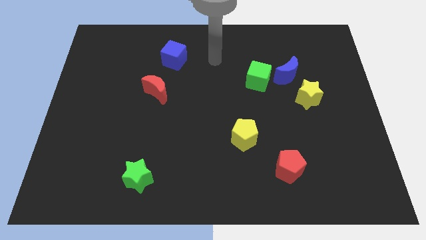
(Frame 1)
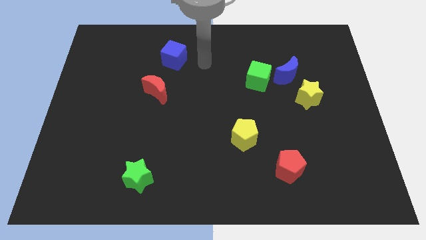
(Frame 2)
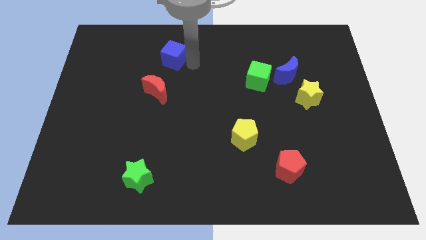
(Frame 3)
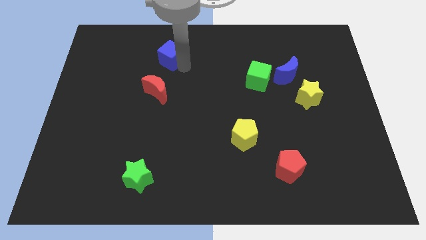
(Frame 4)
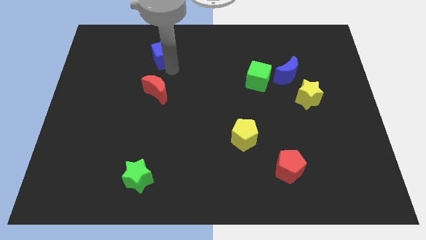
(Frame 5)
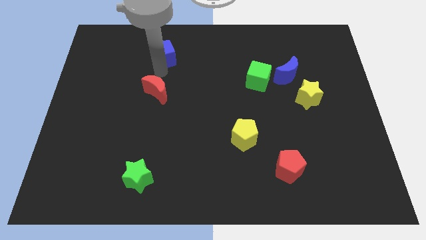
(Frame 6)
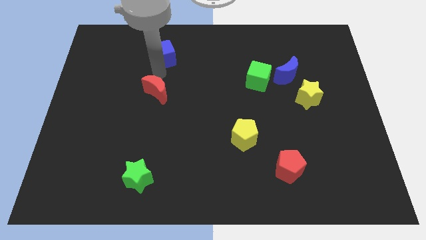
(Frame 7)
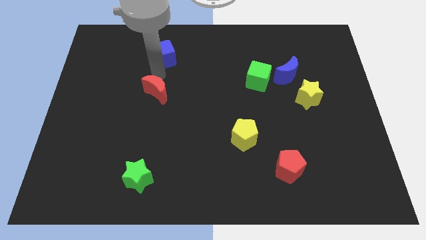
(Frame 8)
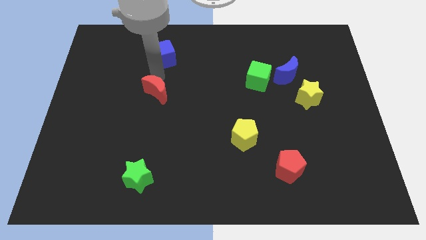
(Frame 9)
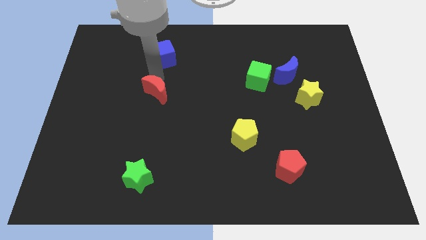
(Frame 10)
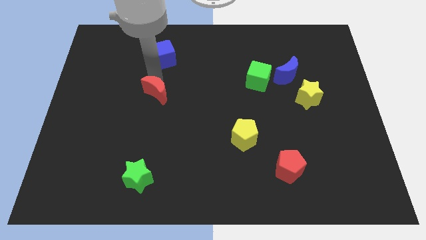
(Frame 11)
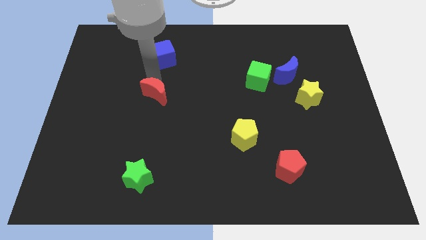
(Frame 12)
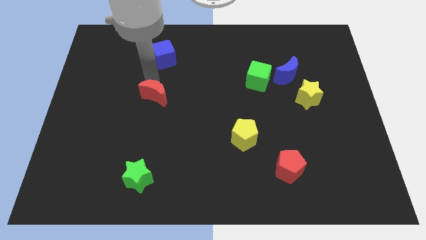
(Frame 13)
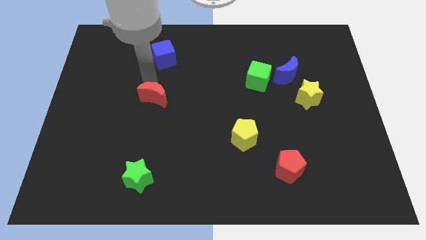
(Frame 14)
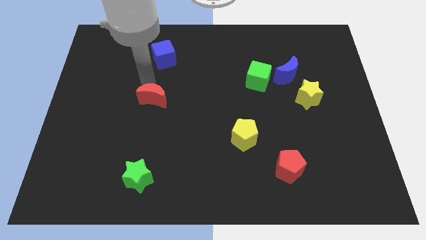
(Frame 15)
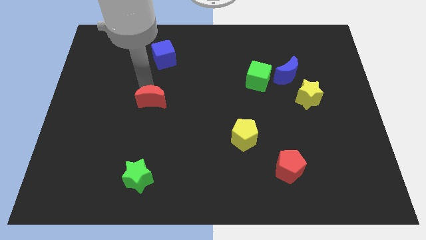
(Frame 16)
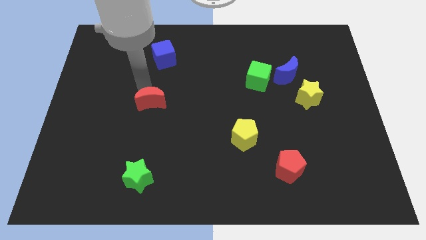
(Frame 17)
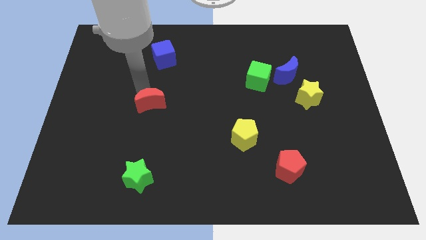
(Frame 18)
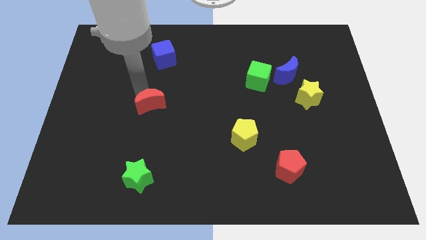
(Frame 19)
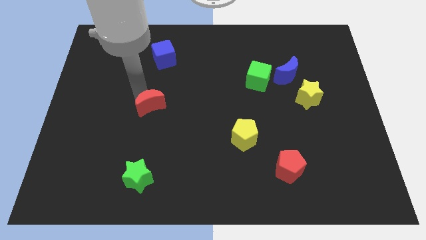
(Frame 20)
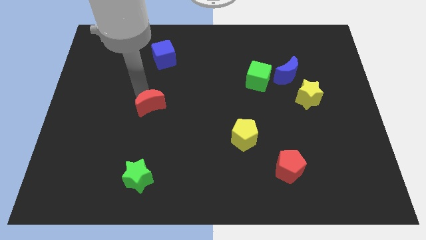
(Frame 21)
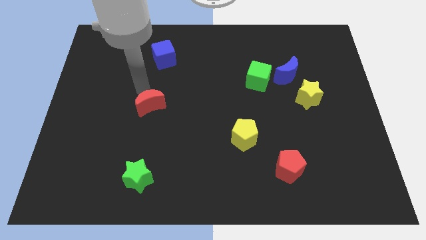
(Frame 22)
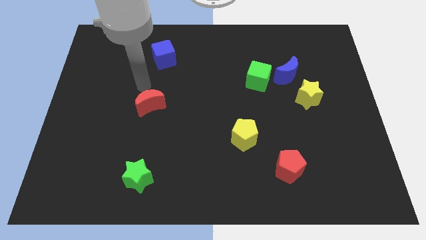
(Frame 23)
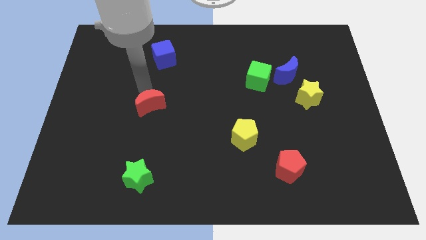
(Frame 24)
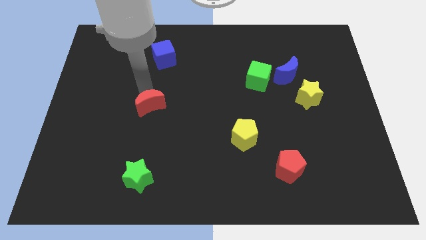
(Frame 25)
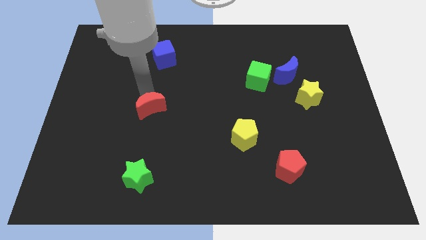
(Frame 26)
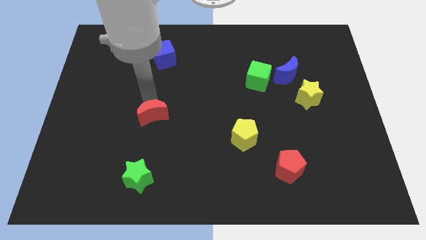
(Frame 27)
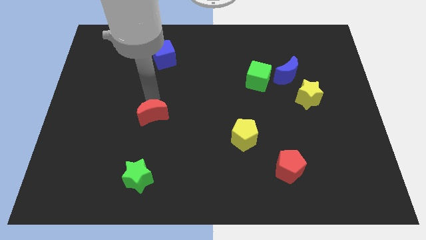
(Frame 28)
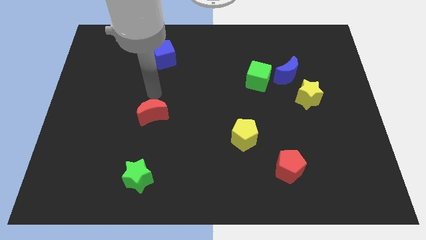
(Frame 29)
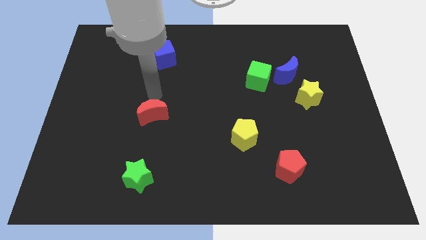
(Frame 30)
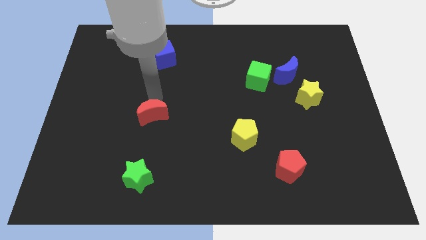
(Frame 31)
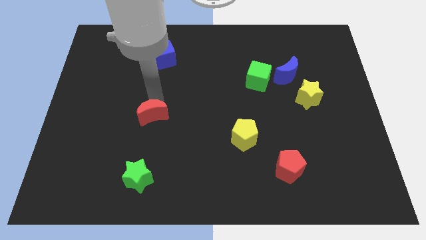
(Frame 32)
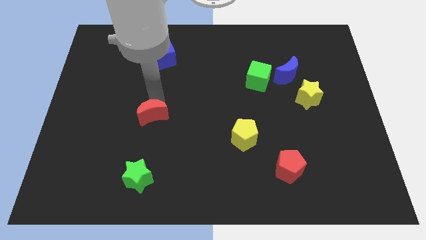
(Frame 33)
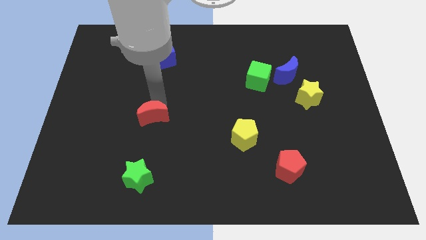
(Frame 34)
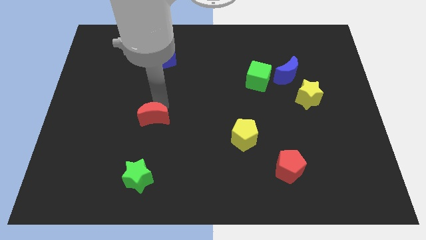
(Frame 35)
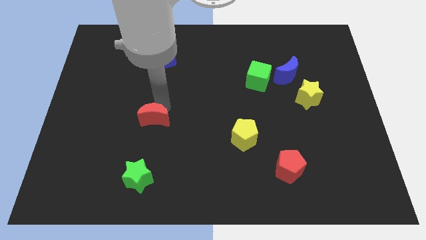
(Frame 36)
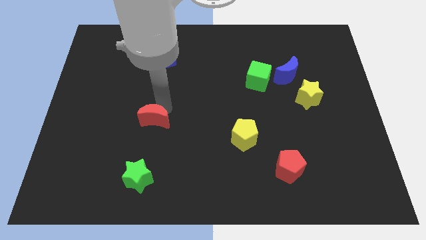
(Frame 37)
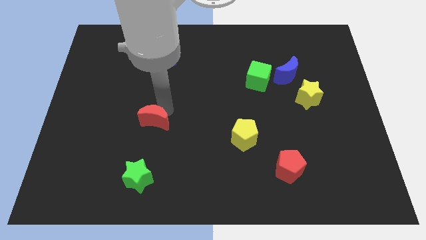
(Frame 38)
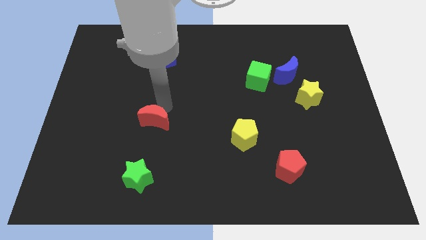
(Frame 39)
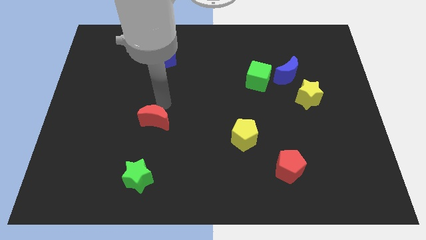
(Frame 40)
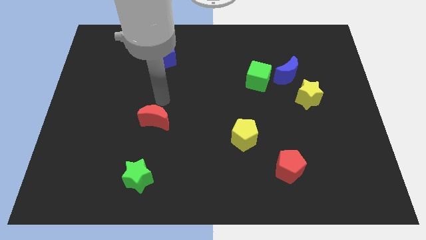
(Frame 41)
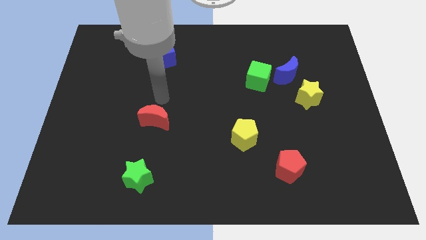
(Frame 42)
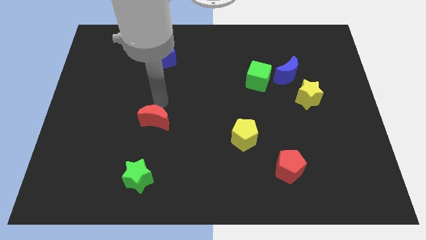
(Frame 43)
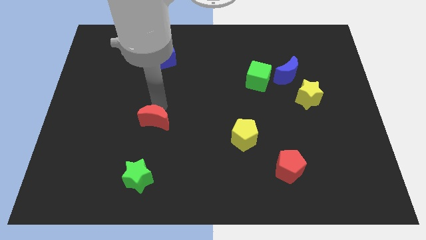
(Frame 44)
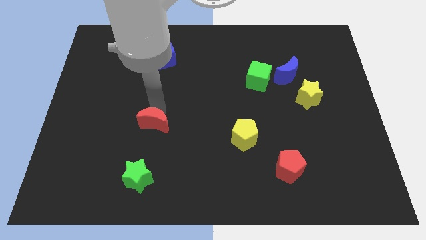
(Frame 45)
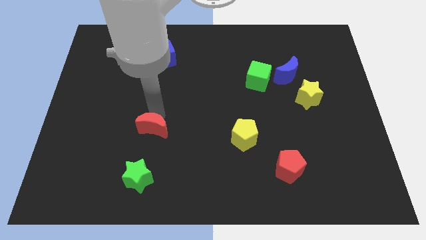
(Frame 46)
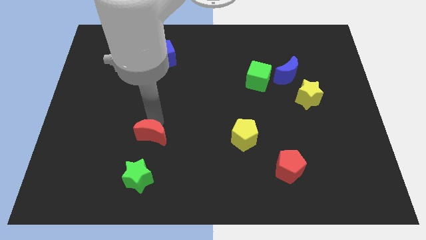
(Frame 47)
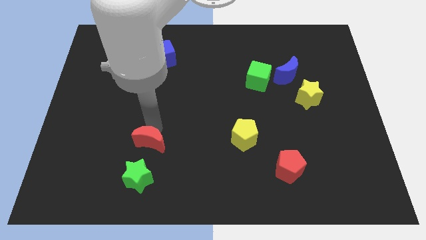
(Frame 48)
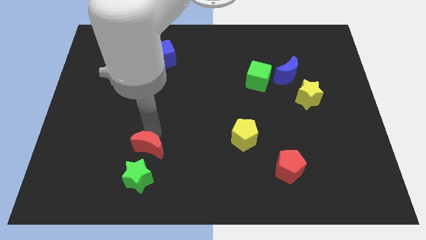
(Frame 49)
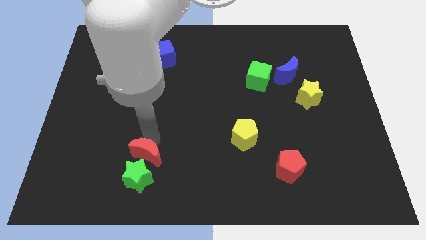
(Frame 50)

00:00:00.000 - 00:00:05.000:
put the red moon close to the green star

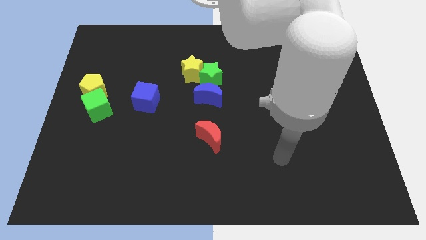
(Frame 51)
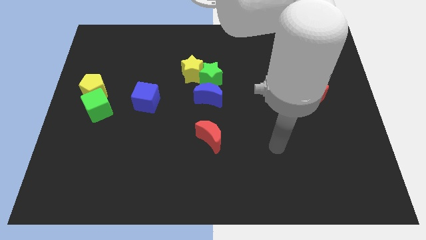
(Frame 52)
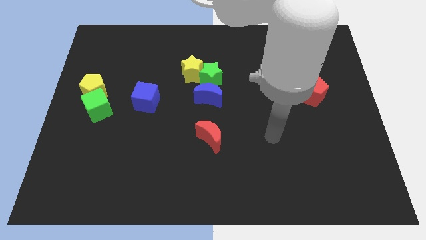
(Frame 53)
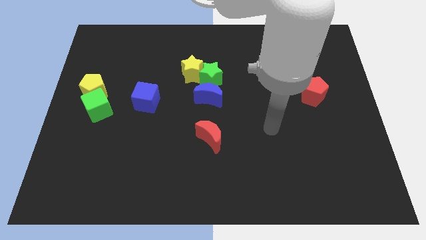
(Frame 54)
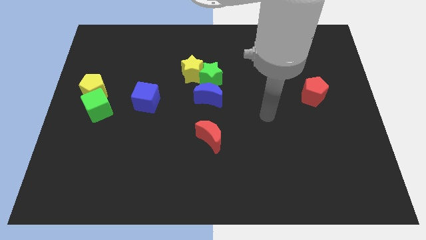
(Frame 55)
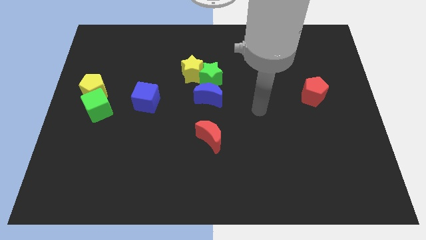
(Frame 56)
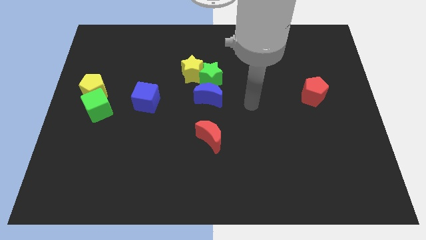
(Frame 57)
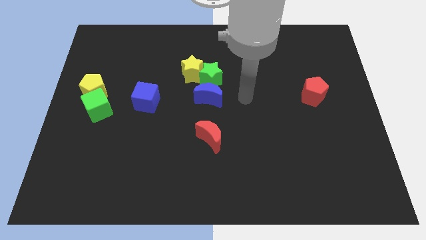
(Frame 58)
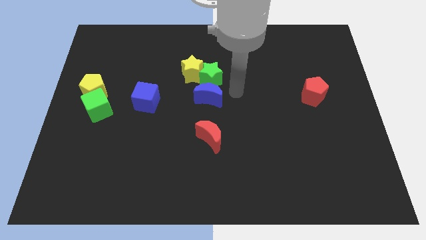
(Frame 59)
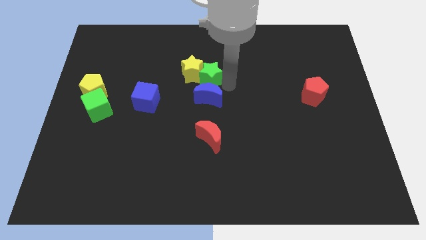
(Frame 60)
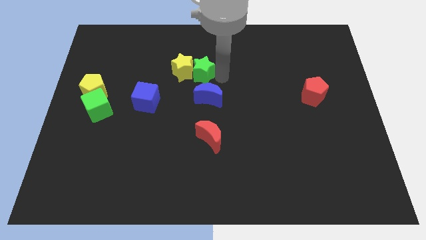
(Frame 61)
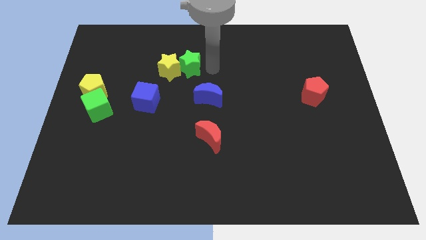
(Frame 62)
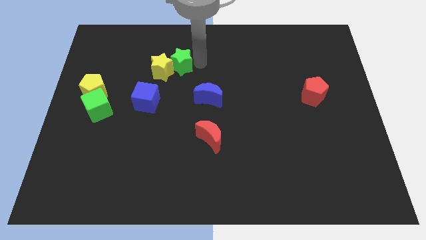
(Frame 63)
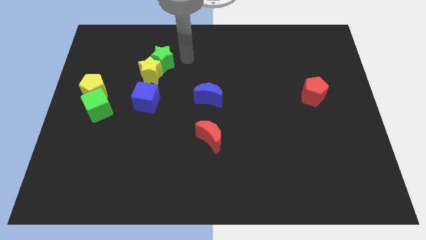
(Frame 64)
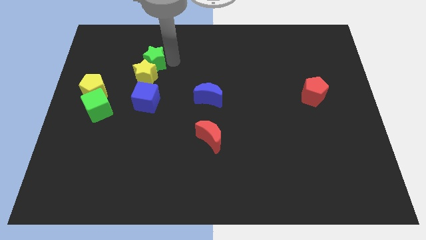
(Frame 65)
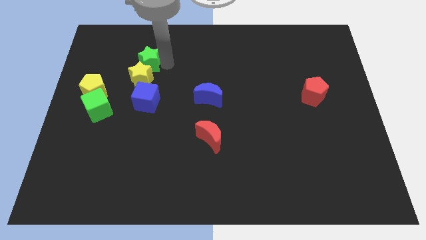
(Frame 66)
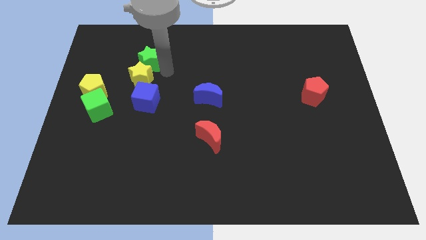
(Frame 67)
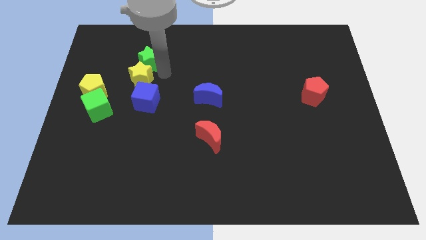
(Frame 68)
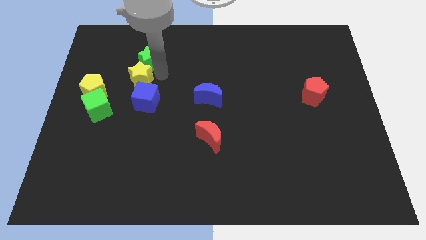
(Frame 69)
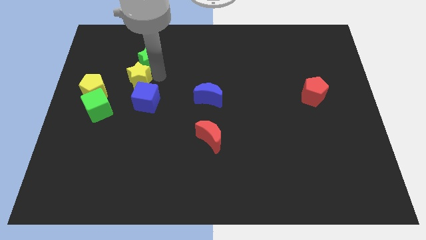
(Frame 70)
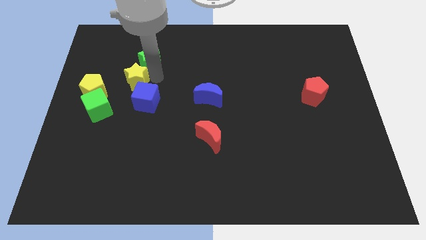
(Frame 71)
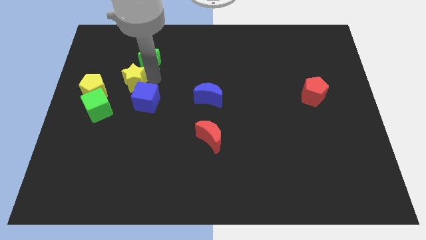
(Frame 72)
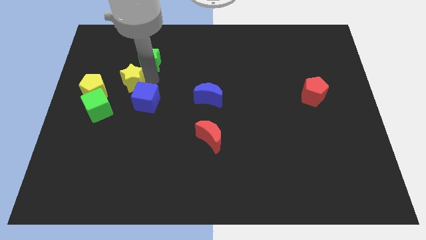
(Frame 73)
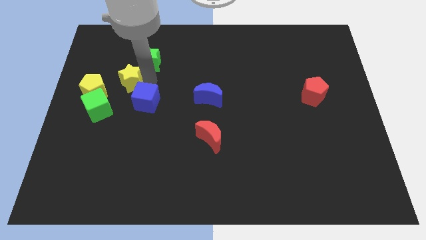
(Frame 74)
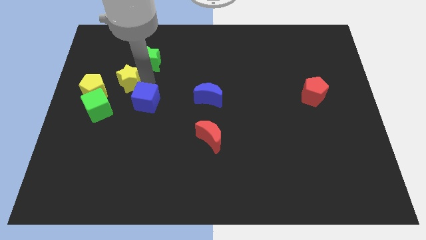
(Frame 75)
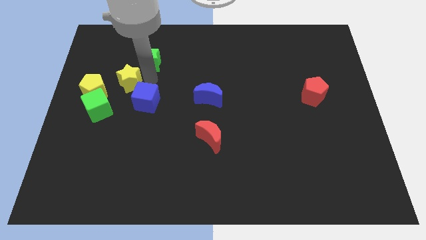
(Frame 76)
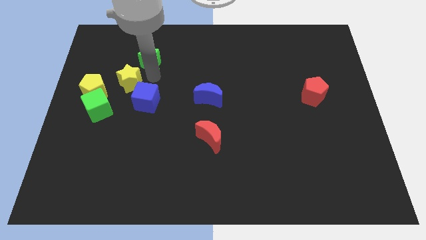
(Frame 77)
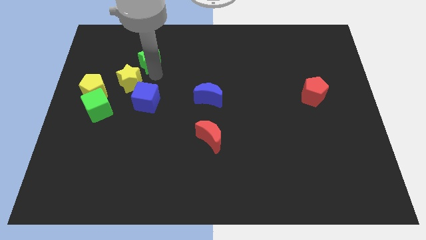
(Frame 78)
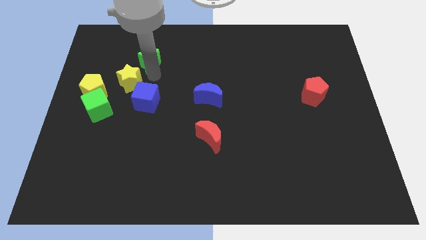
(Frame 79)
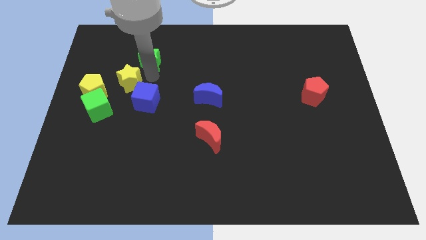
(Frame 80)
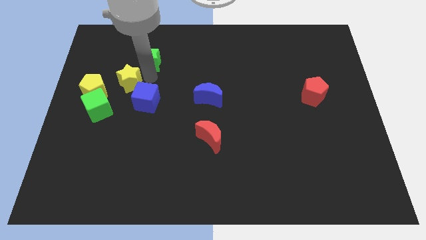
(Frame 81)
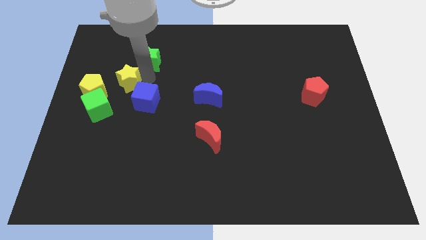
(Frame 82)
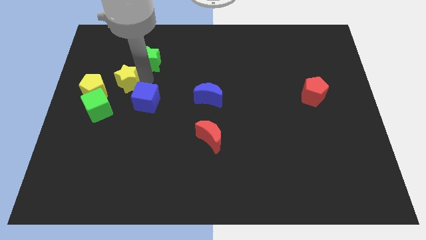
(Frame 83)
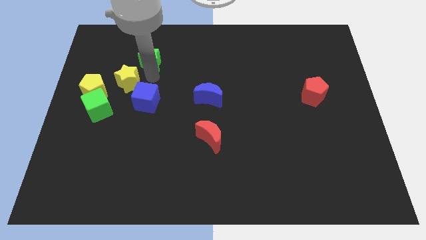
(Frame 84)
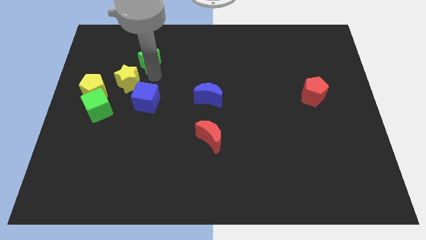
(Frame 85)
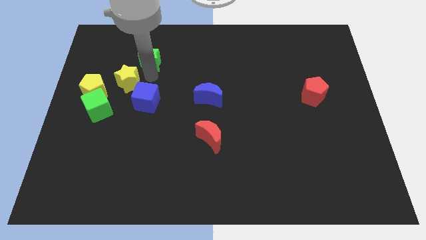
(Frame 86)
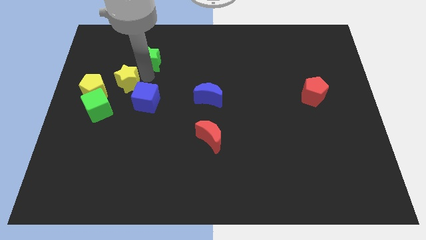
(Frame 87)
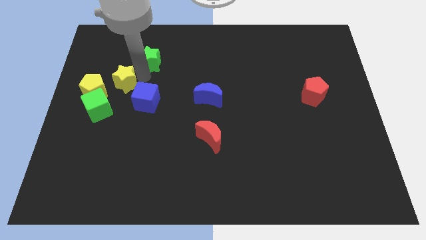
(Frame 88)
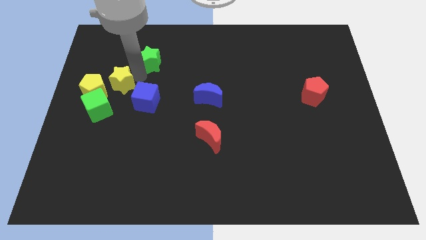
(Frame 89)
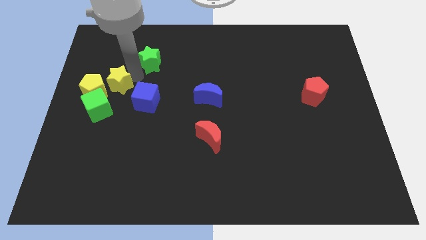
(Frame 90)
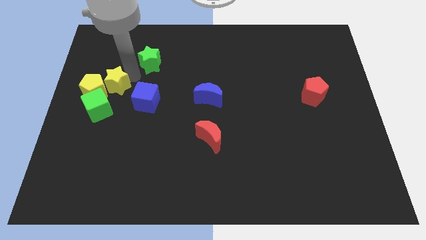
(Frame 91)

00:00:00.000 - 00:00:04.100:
push the yellow star next to the yellow pentagon
